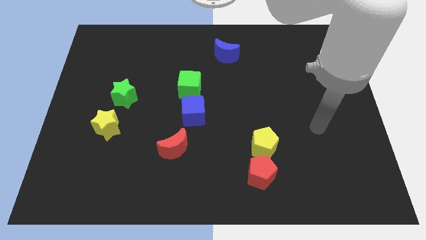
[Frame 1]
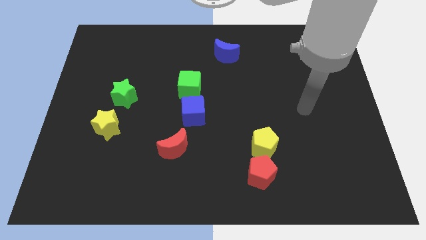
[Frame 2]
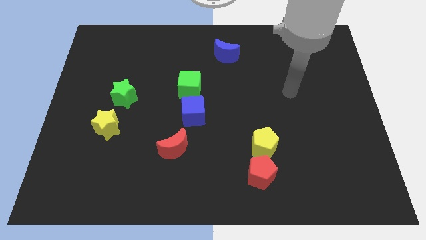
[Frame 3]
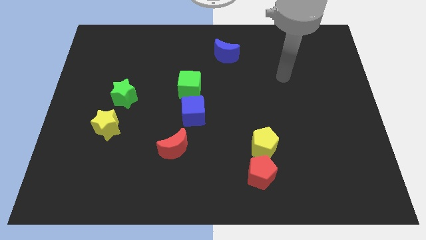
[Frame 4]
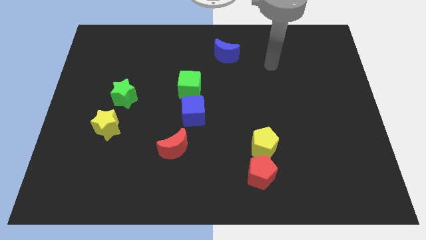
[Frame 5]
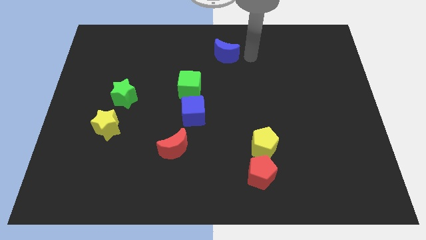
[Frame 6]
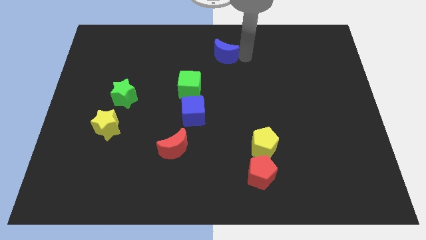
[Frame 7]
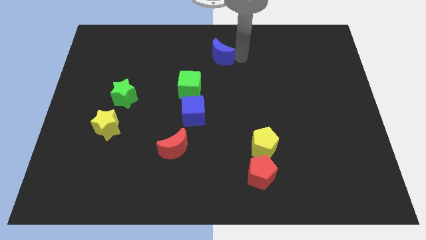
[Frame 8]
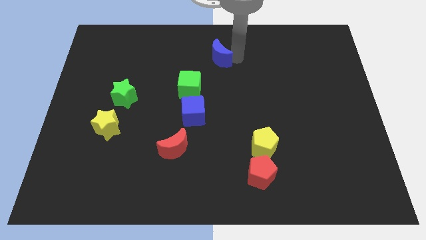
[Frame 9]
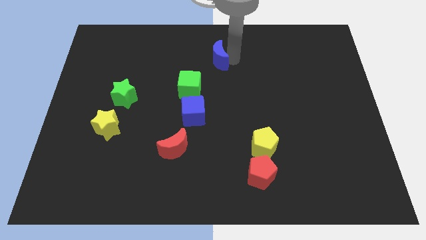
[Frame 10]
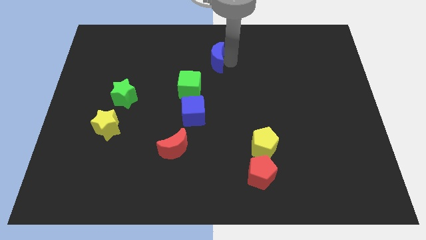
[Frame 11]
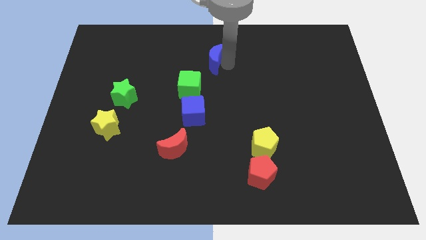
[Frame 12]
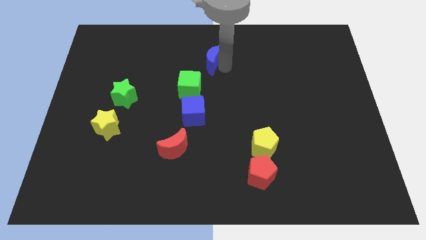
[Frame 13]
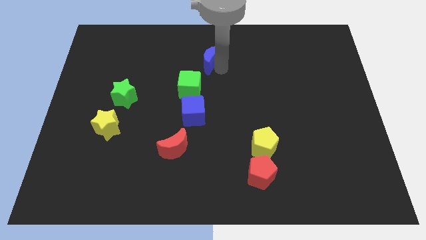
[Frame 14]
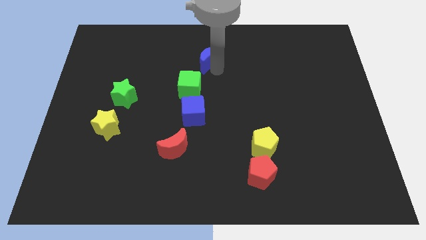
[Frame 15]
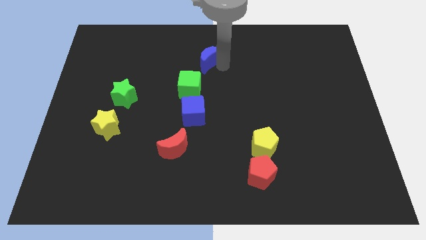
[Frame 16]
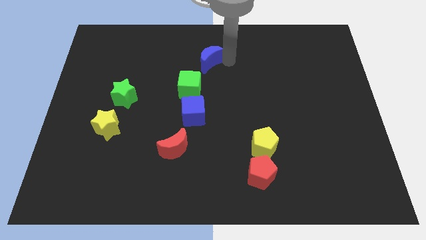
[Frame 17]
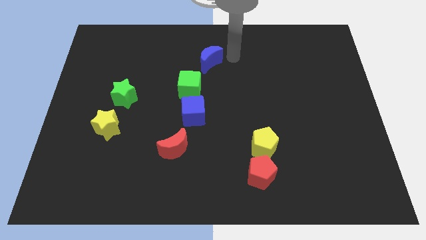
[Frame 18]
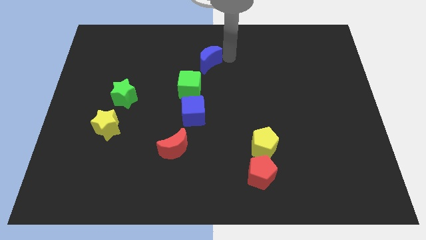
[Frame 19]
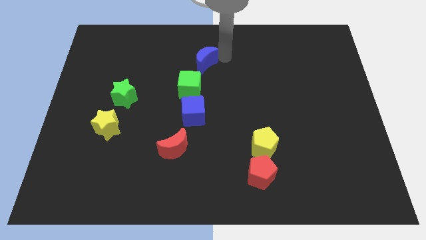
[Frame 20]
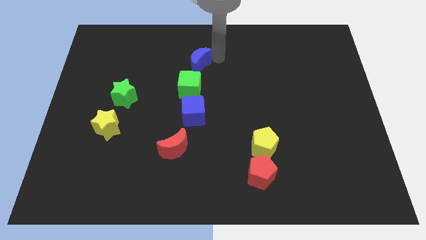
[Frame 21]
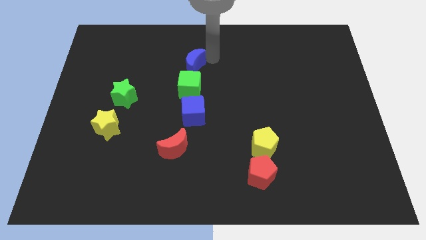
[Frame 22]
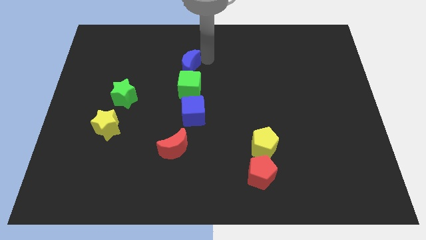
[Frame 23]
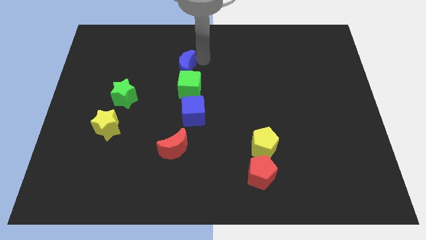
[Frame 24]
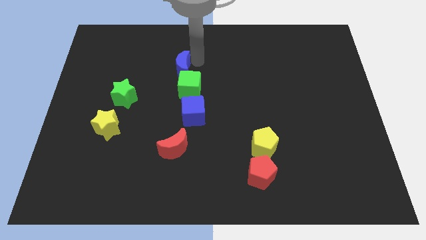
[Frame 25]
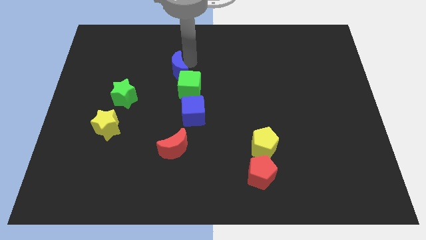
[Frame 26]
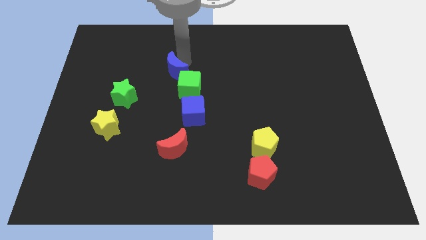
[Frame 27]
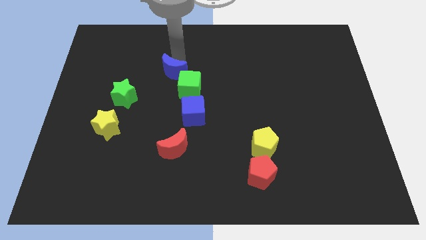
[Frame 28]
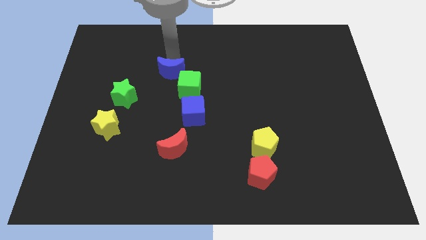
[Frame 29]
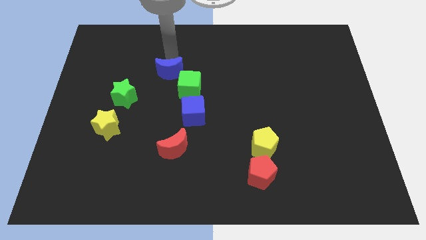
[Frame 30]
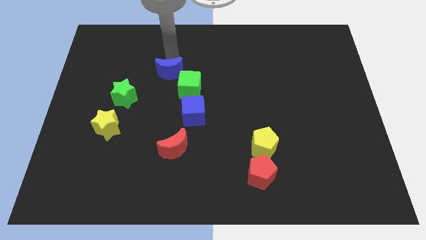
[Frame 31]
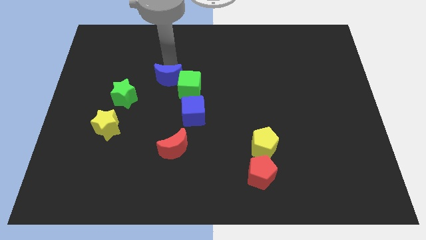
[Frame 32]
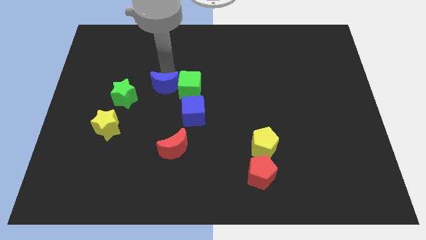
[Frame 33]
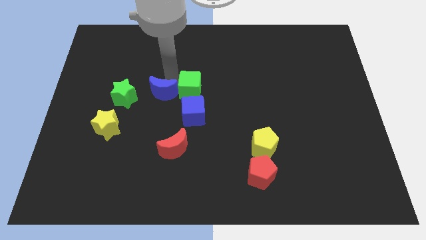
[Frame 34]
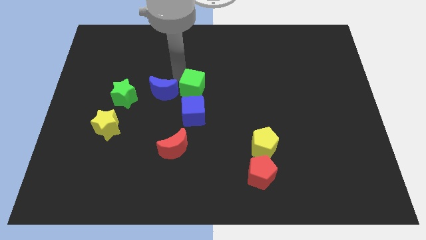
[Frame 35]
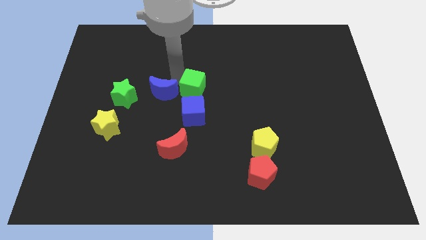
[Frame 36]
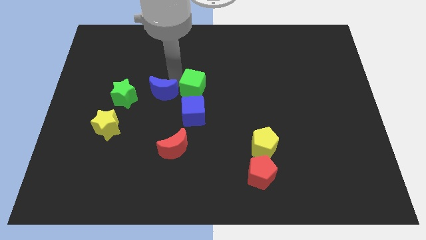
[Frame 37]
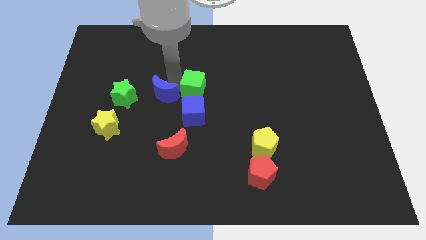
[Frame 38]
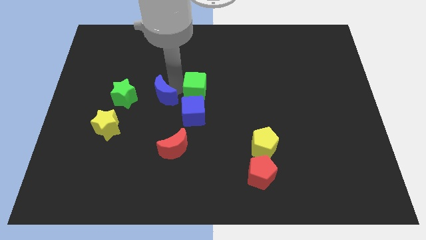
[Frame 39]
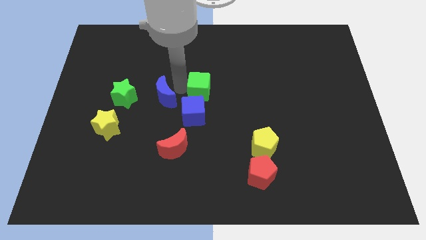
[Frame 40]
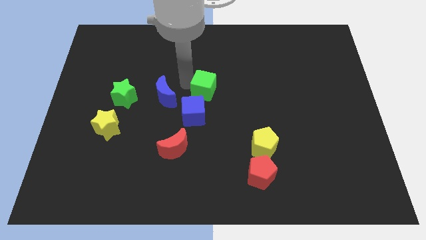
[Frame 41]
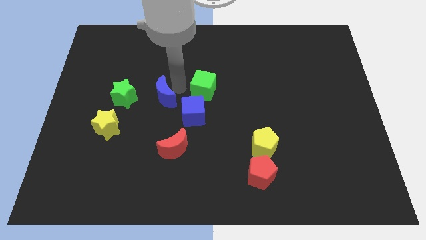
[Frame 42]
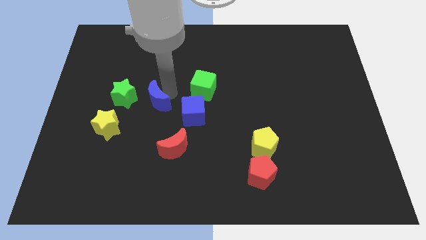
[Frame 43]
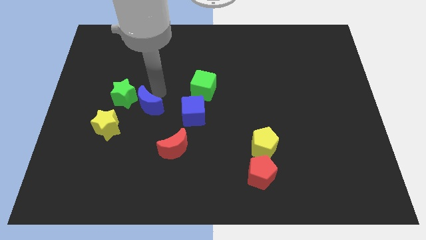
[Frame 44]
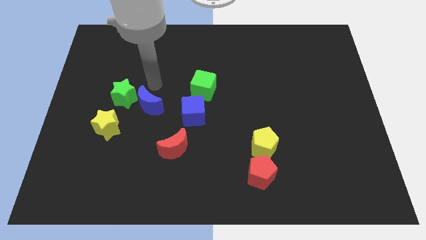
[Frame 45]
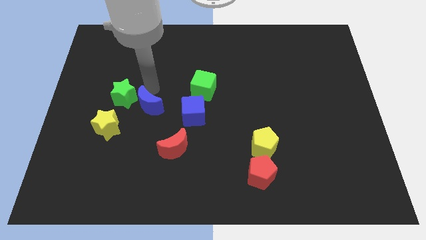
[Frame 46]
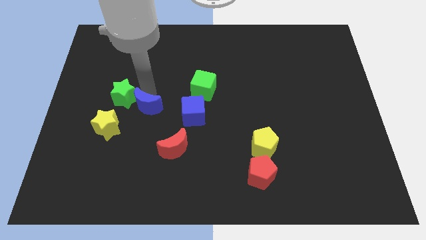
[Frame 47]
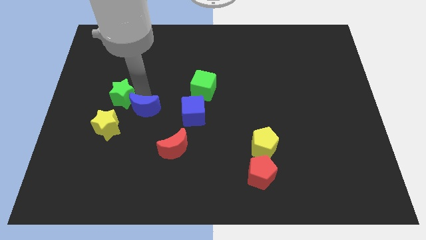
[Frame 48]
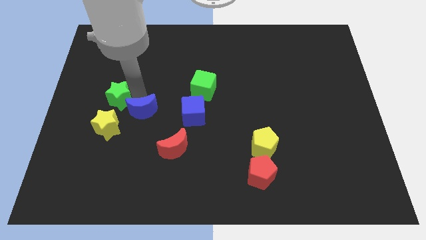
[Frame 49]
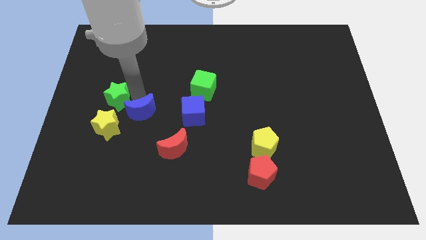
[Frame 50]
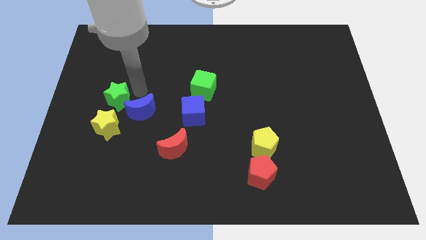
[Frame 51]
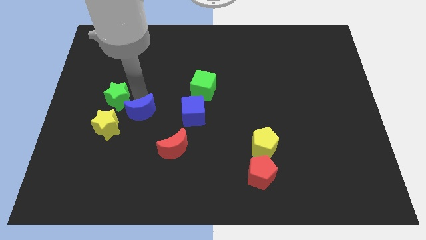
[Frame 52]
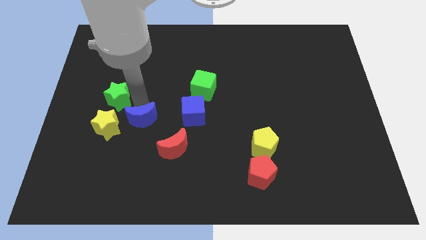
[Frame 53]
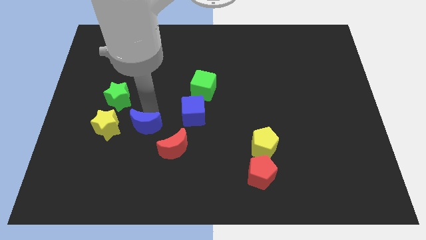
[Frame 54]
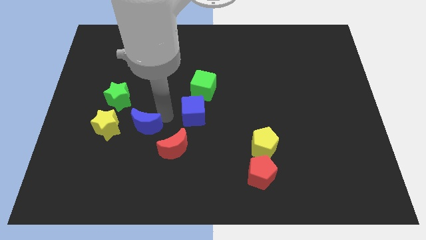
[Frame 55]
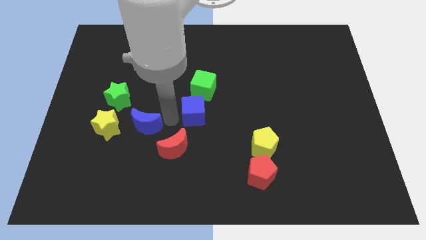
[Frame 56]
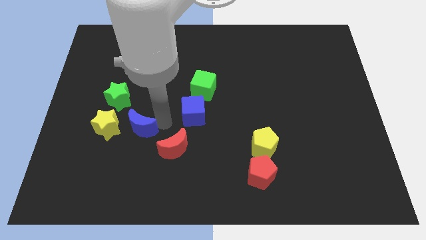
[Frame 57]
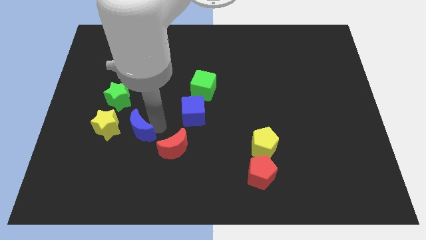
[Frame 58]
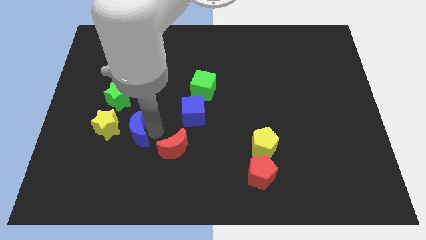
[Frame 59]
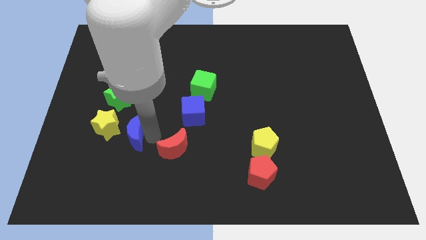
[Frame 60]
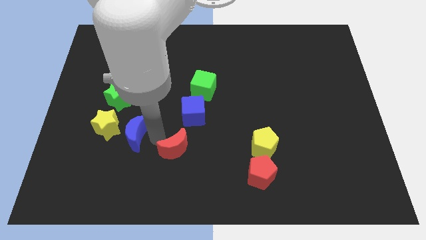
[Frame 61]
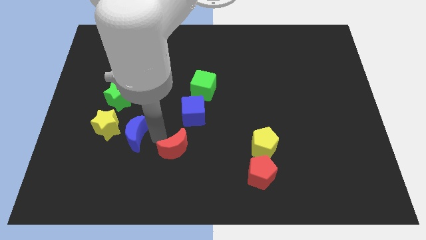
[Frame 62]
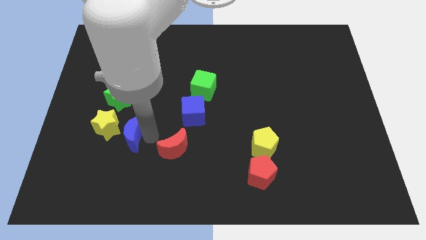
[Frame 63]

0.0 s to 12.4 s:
slide the blue moon below the green star

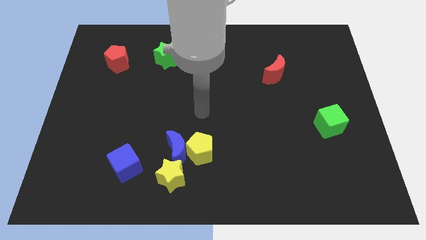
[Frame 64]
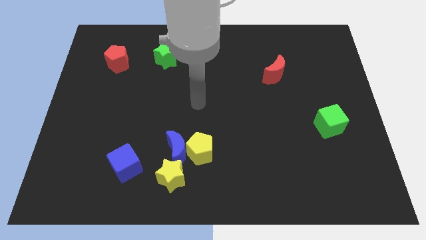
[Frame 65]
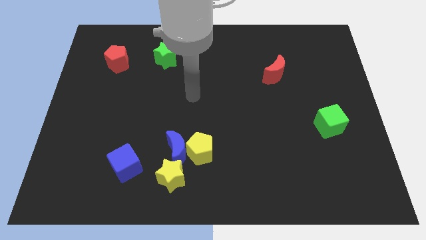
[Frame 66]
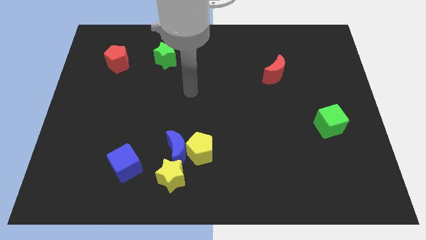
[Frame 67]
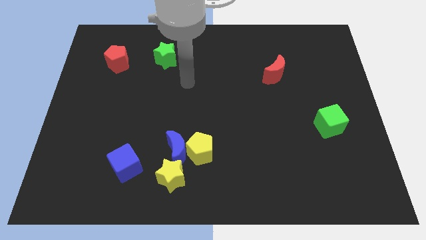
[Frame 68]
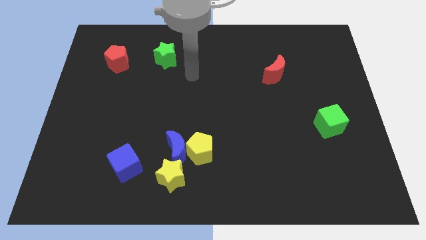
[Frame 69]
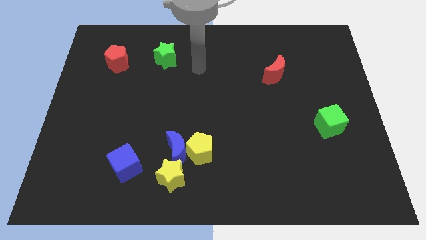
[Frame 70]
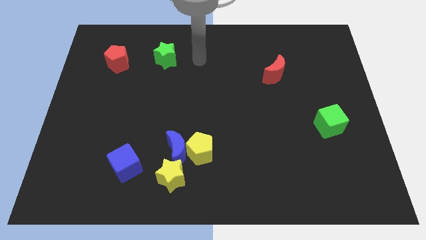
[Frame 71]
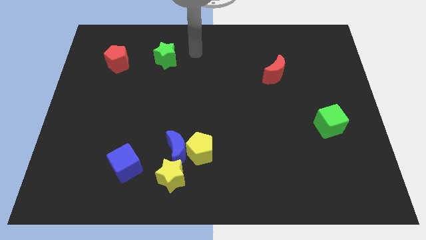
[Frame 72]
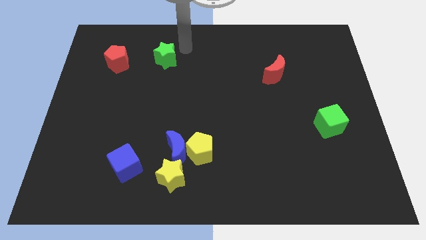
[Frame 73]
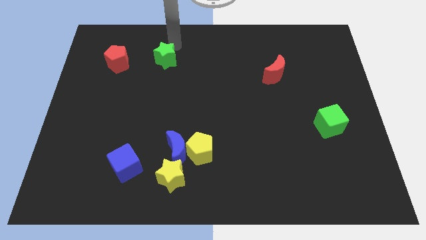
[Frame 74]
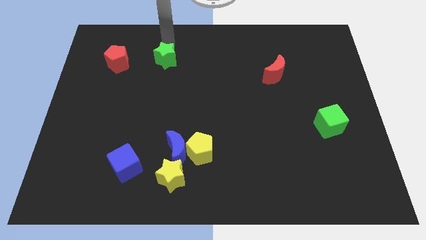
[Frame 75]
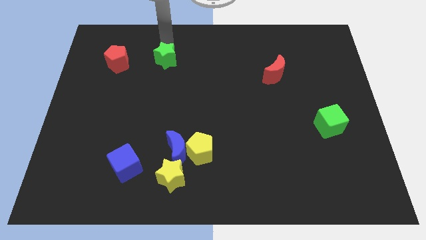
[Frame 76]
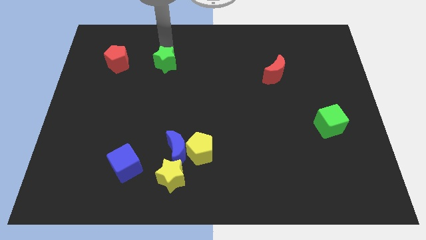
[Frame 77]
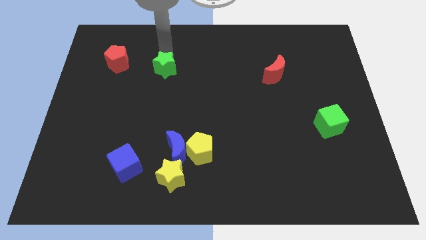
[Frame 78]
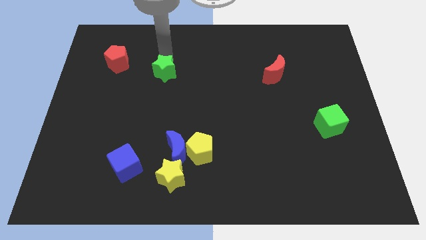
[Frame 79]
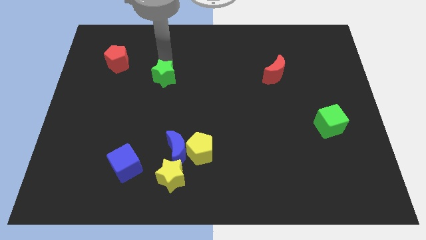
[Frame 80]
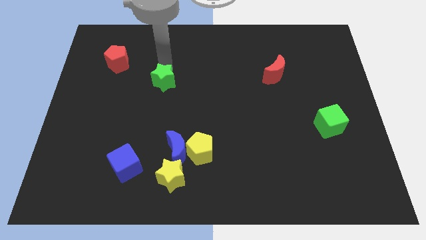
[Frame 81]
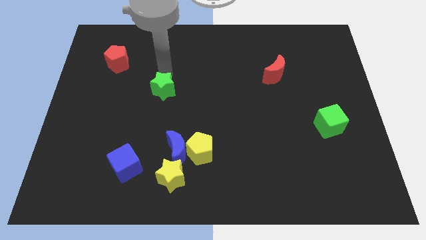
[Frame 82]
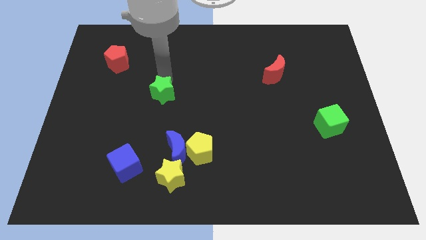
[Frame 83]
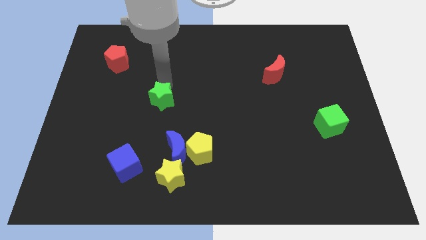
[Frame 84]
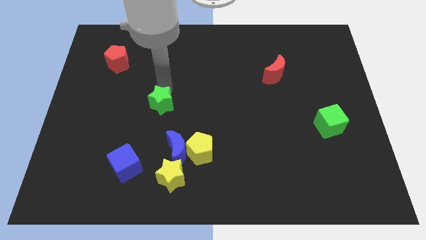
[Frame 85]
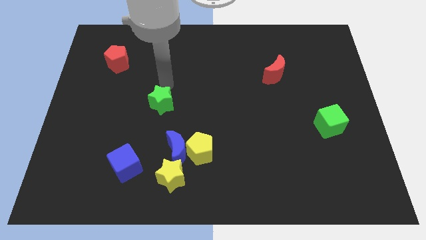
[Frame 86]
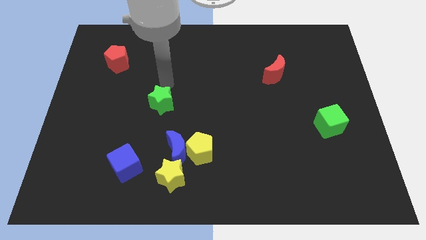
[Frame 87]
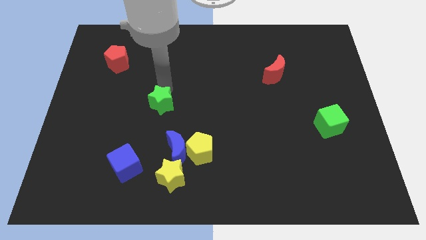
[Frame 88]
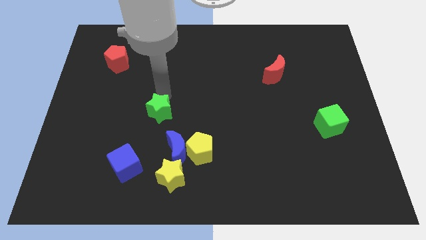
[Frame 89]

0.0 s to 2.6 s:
push the green star to the top left of the blue moon
